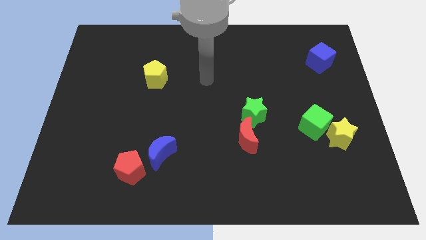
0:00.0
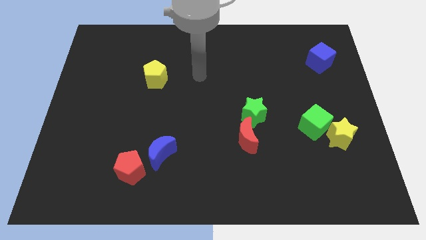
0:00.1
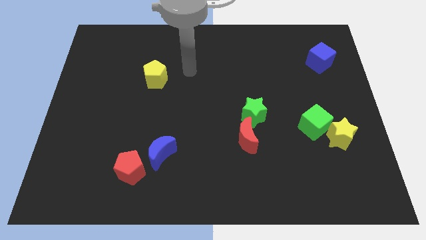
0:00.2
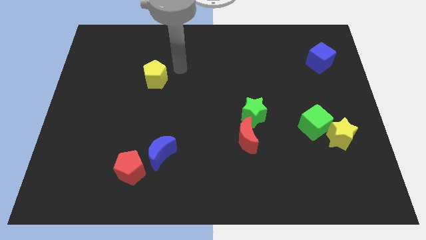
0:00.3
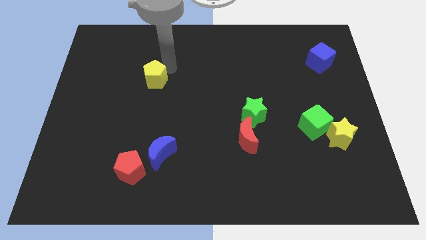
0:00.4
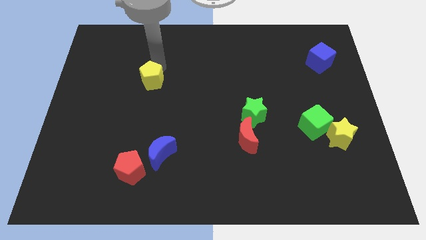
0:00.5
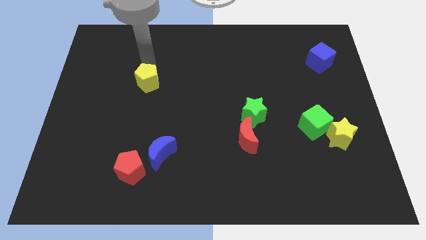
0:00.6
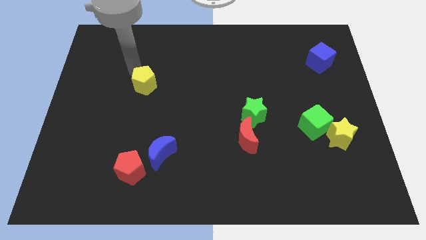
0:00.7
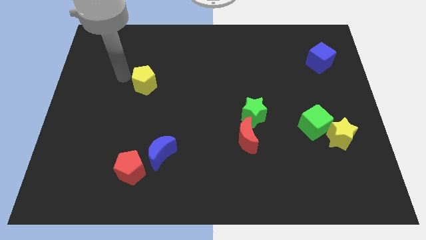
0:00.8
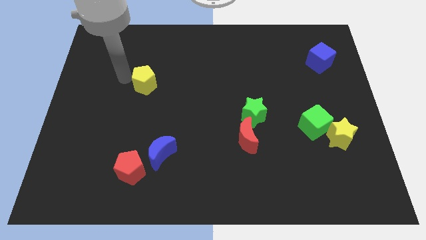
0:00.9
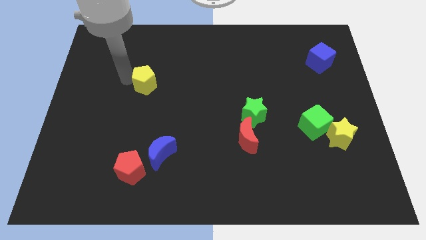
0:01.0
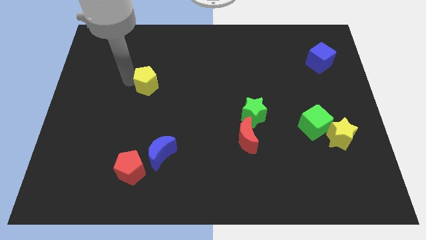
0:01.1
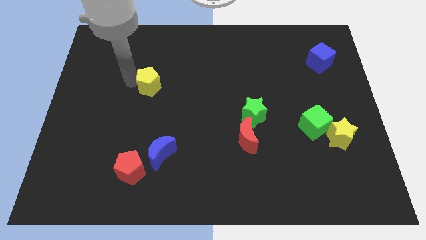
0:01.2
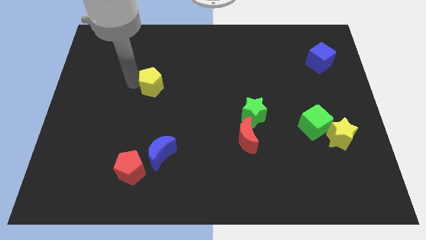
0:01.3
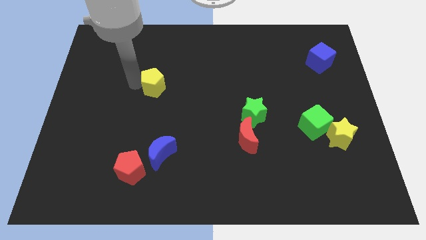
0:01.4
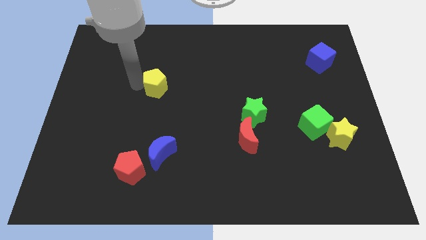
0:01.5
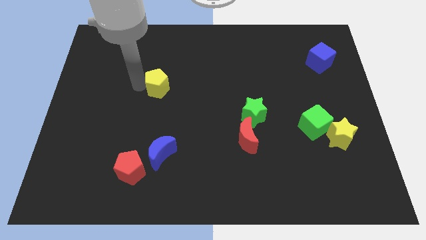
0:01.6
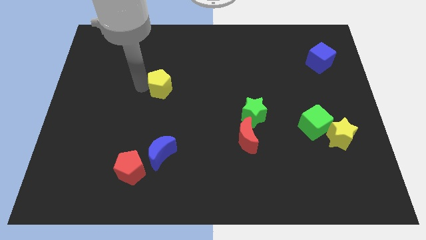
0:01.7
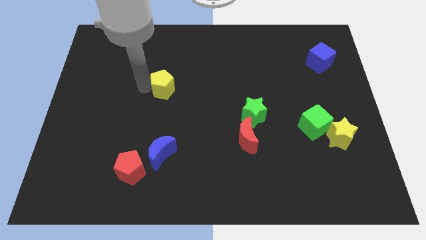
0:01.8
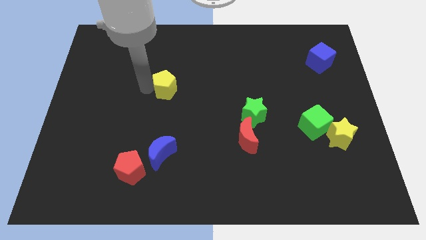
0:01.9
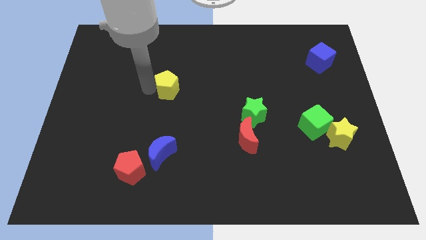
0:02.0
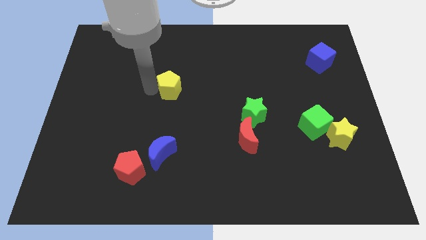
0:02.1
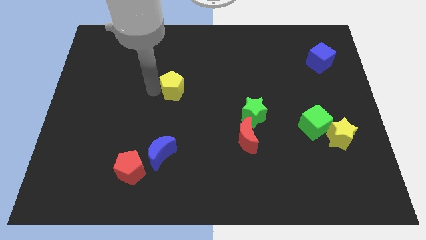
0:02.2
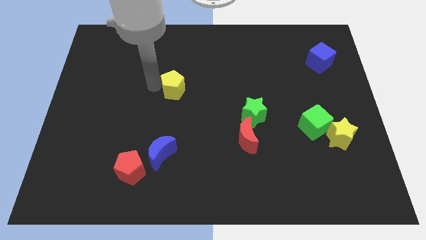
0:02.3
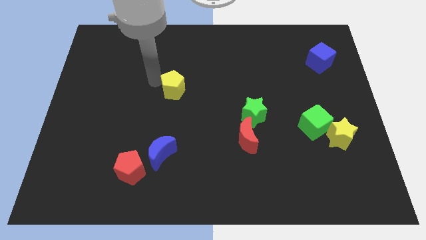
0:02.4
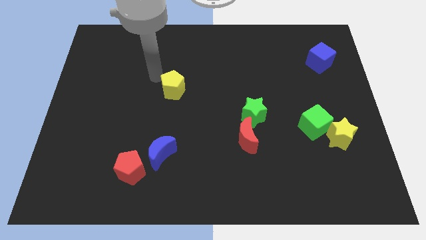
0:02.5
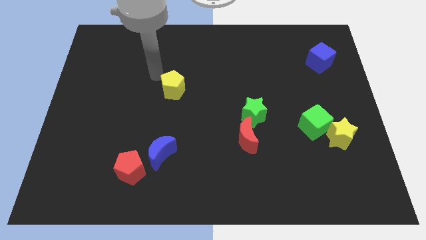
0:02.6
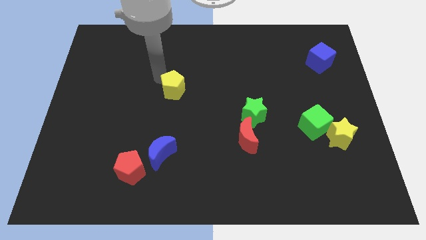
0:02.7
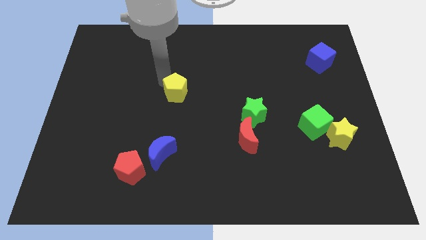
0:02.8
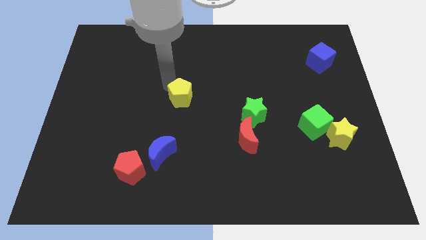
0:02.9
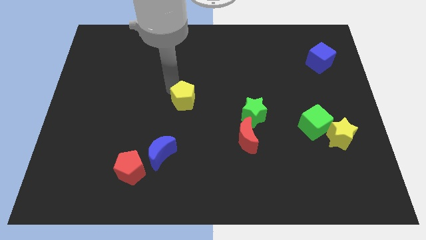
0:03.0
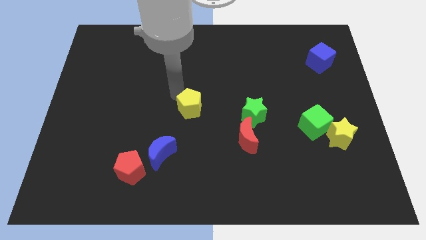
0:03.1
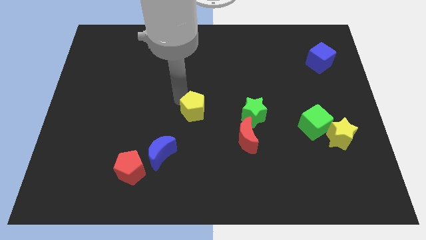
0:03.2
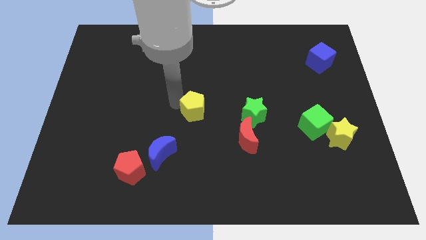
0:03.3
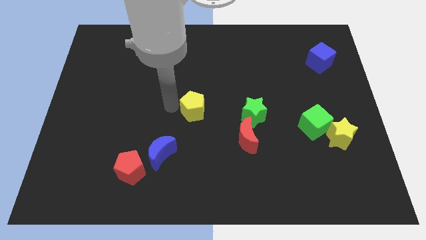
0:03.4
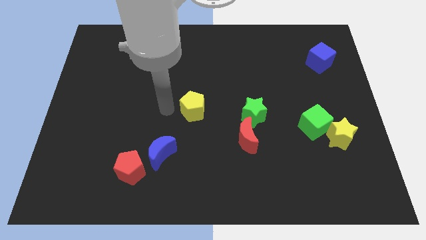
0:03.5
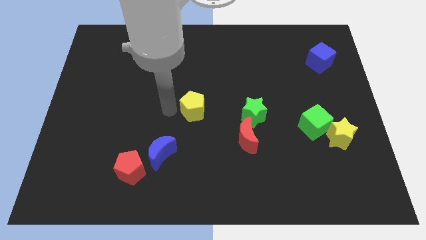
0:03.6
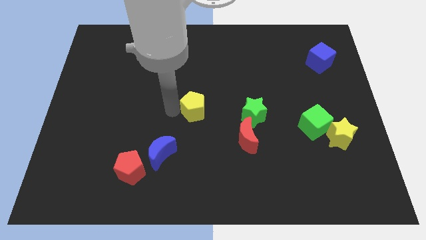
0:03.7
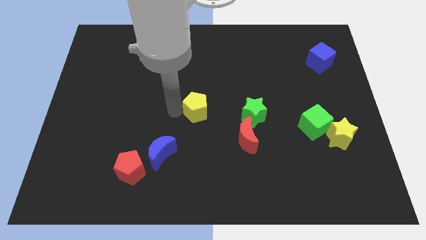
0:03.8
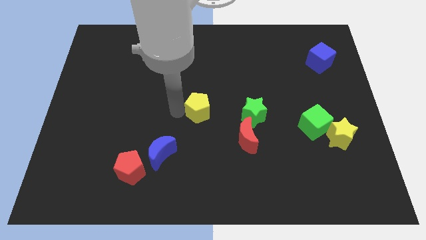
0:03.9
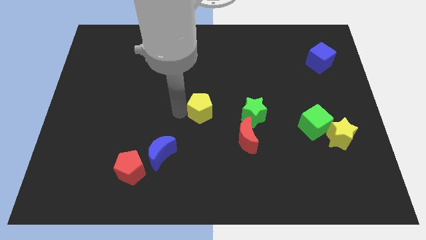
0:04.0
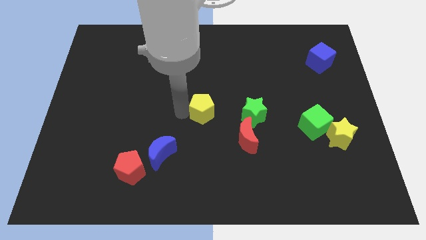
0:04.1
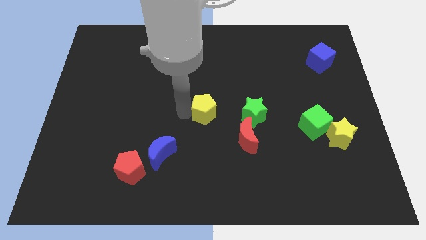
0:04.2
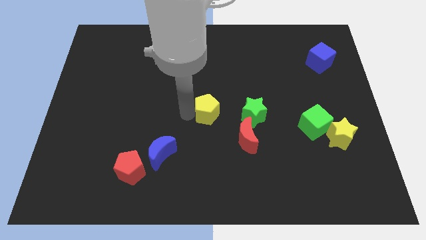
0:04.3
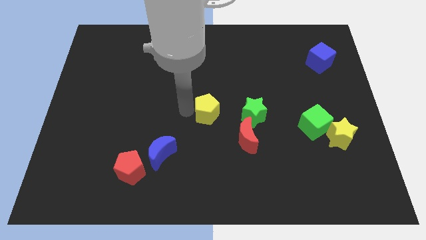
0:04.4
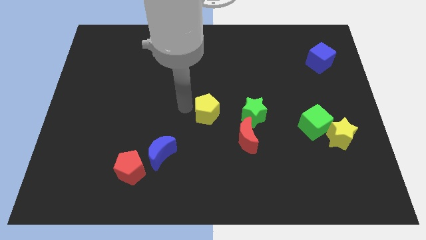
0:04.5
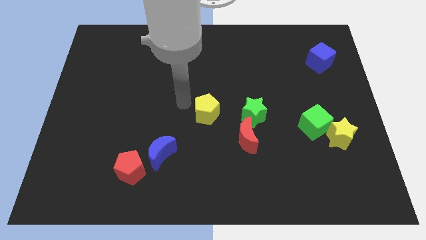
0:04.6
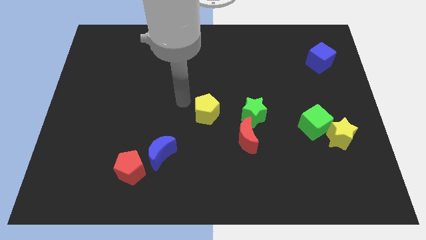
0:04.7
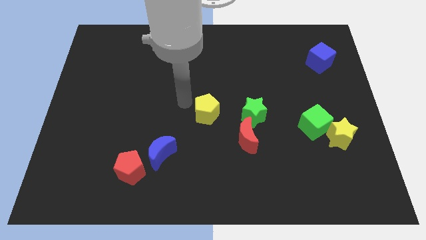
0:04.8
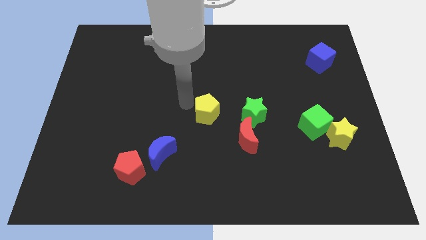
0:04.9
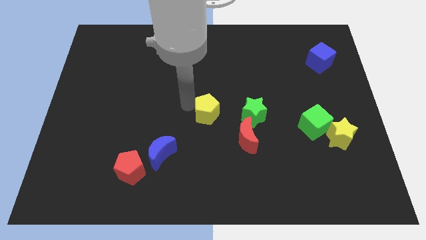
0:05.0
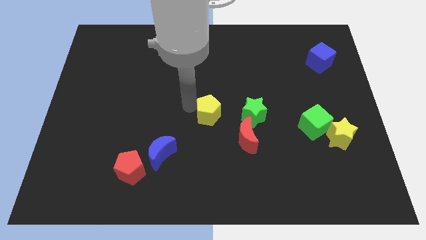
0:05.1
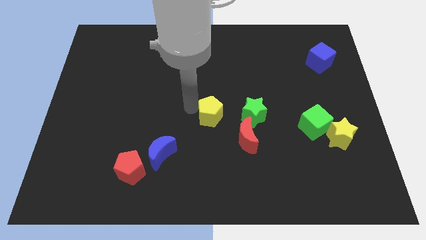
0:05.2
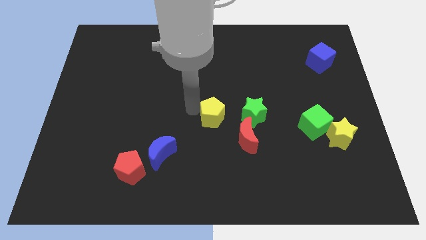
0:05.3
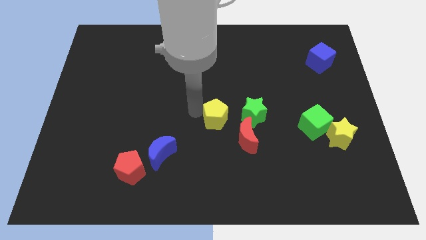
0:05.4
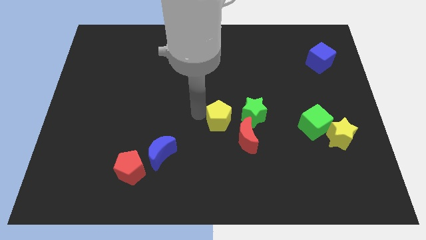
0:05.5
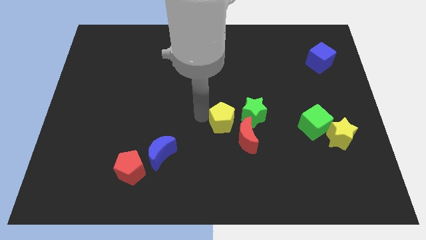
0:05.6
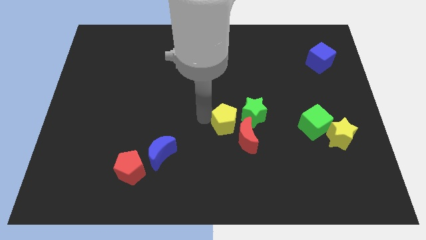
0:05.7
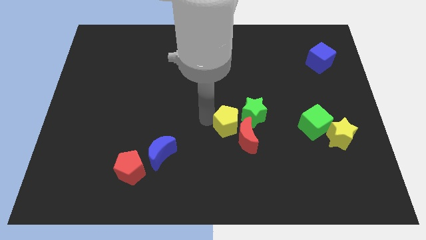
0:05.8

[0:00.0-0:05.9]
slide the yellow pentagon next to the red moon
